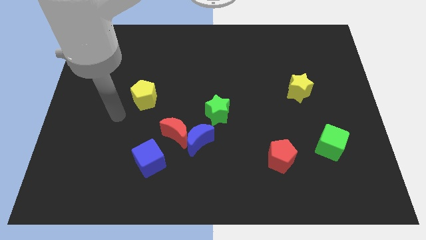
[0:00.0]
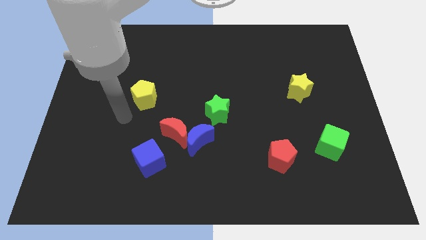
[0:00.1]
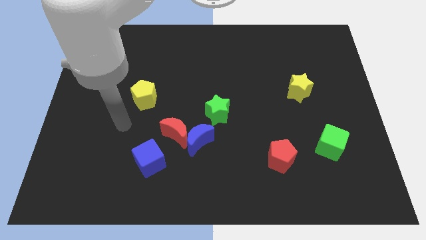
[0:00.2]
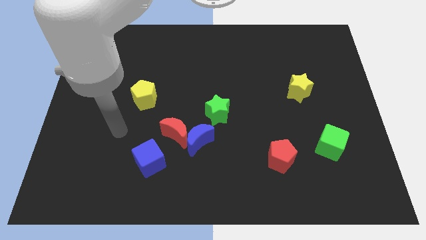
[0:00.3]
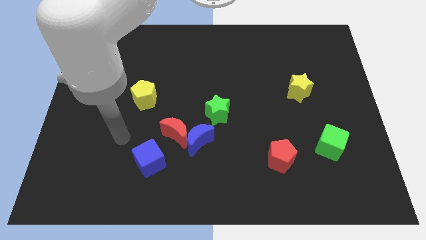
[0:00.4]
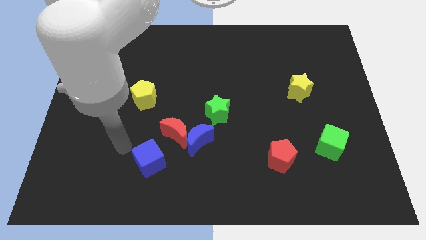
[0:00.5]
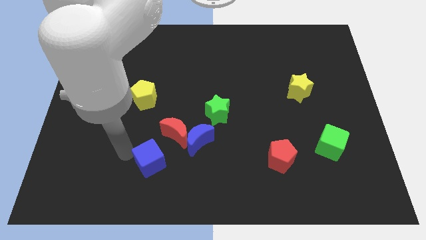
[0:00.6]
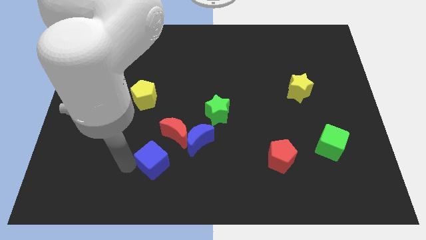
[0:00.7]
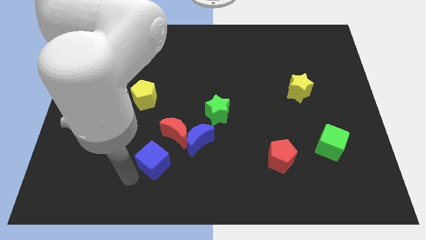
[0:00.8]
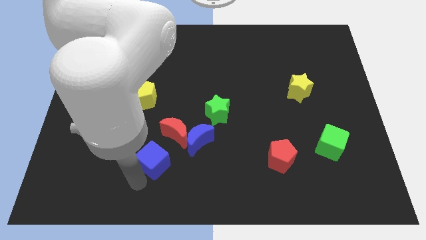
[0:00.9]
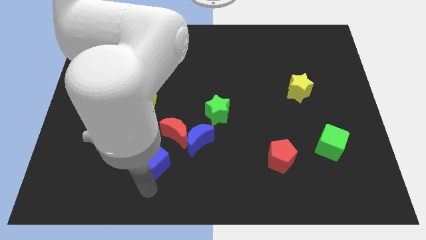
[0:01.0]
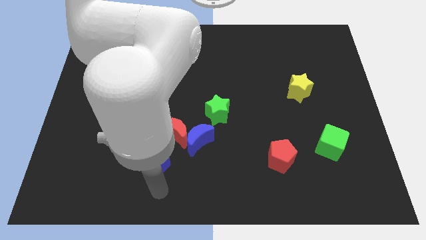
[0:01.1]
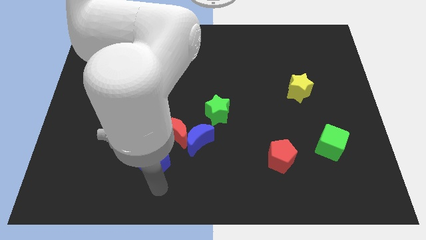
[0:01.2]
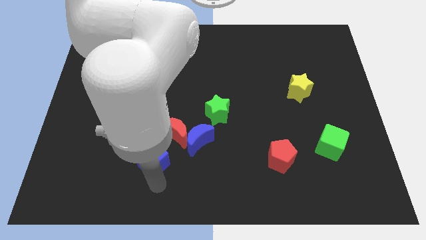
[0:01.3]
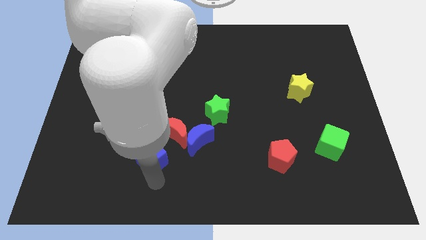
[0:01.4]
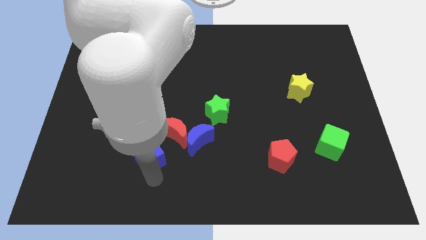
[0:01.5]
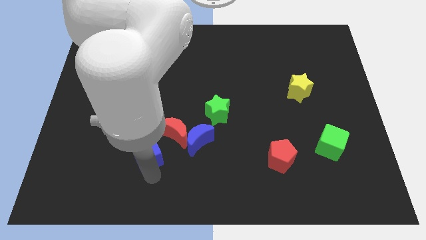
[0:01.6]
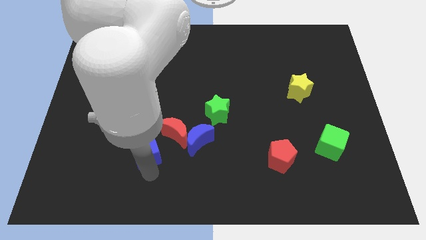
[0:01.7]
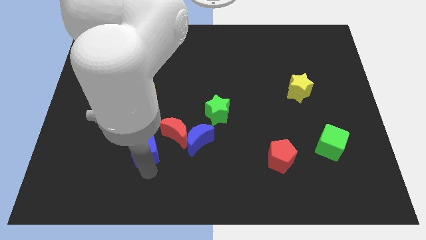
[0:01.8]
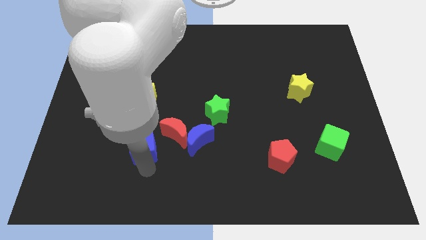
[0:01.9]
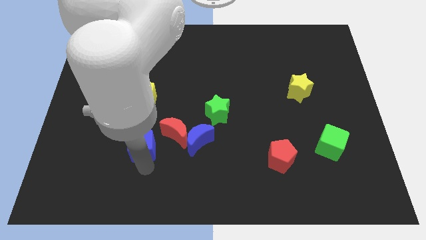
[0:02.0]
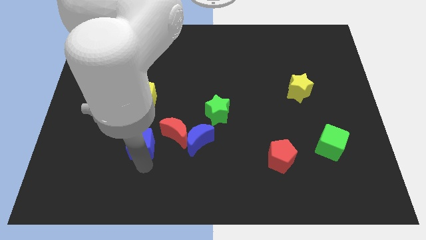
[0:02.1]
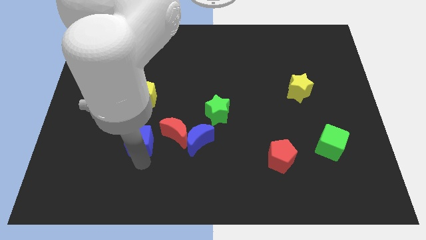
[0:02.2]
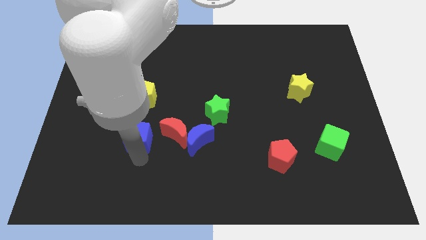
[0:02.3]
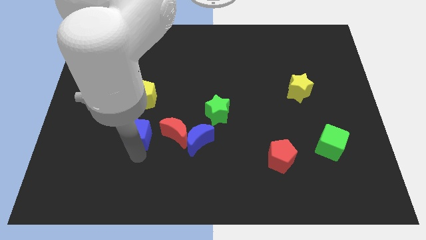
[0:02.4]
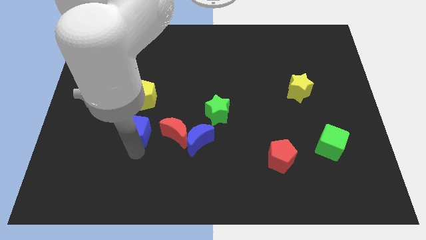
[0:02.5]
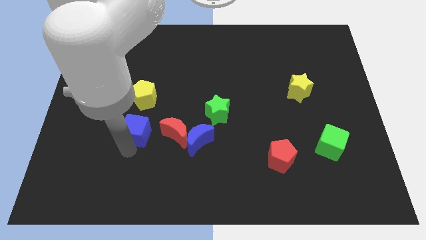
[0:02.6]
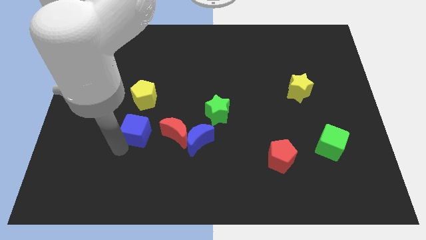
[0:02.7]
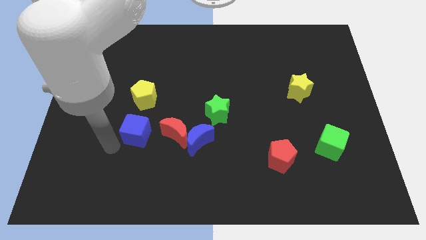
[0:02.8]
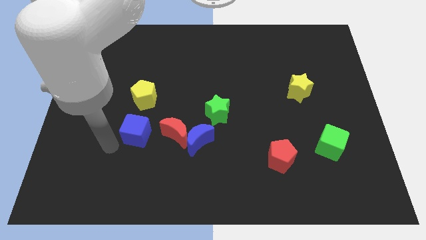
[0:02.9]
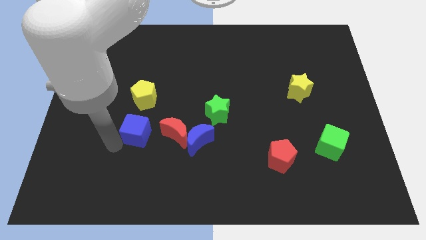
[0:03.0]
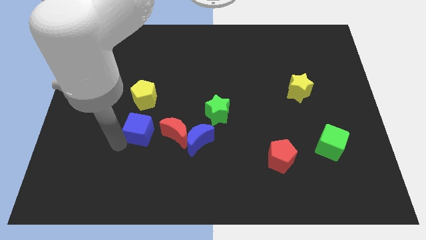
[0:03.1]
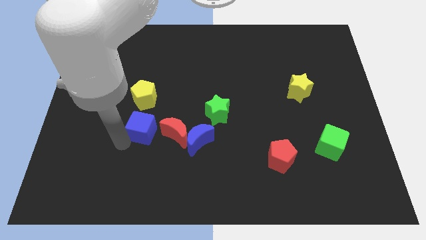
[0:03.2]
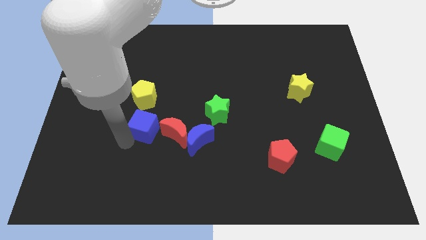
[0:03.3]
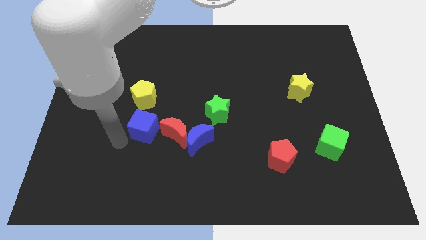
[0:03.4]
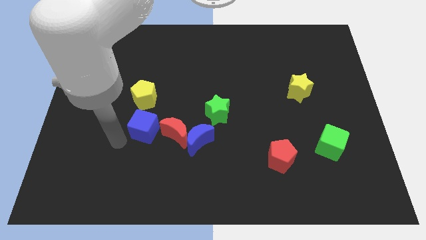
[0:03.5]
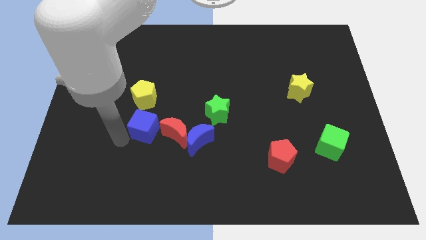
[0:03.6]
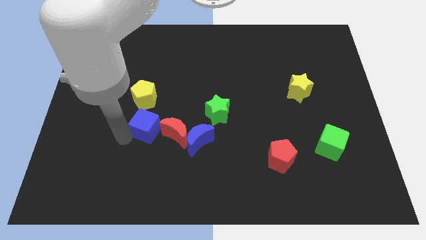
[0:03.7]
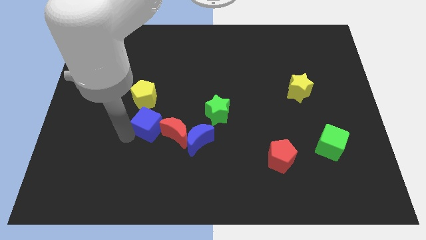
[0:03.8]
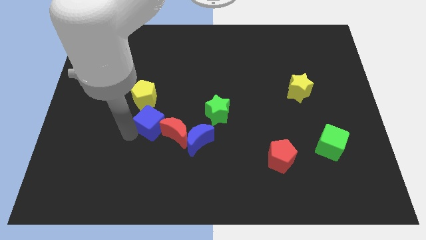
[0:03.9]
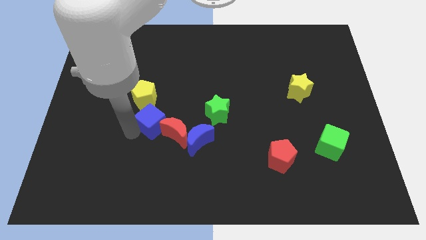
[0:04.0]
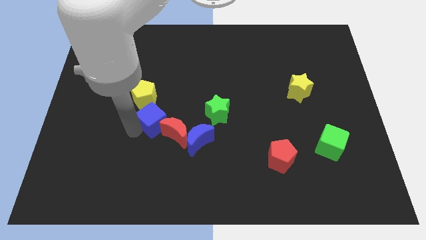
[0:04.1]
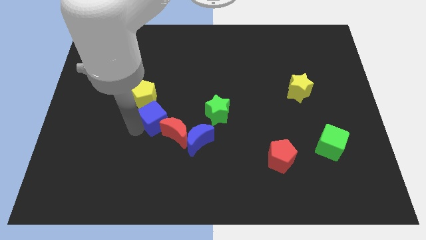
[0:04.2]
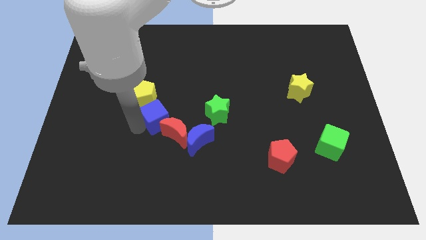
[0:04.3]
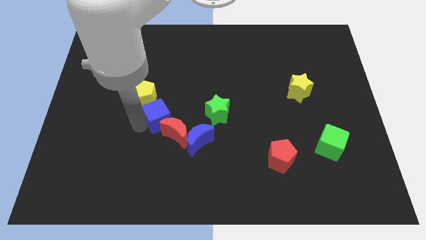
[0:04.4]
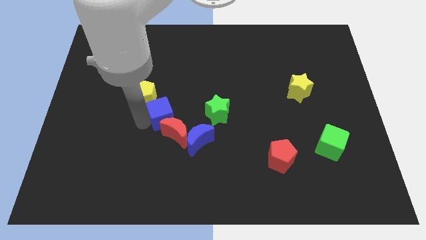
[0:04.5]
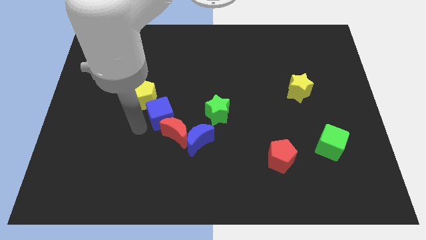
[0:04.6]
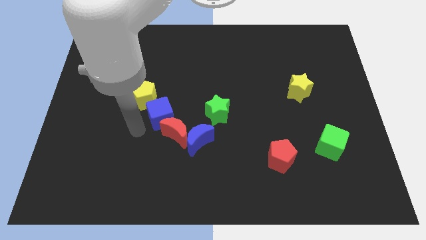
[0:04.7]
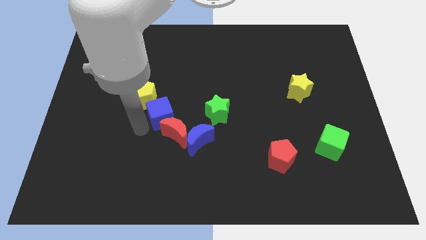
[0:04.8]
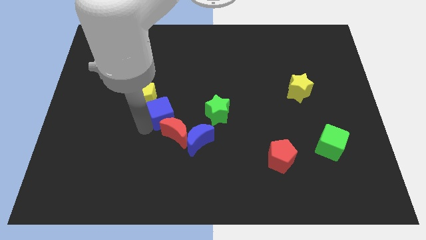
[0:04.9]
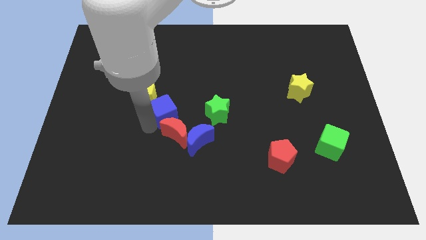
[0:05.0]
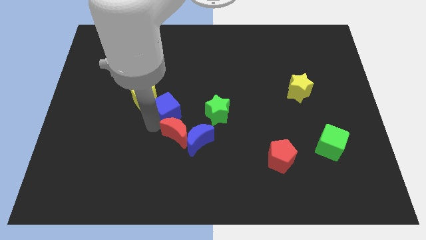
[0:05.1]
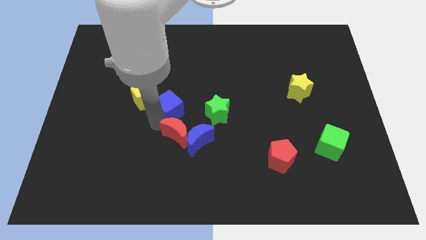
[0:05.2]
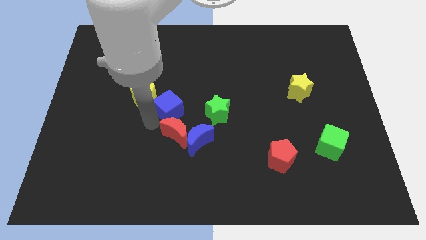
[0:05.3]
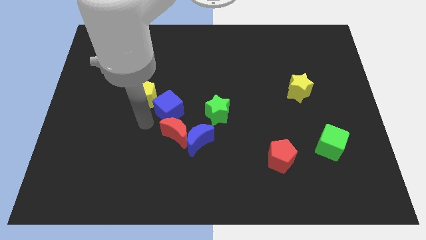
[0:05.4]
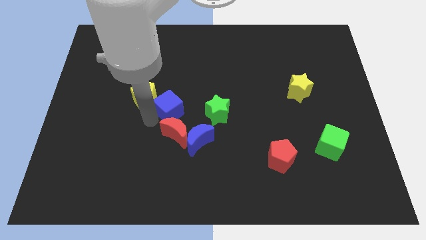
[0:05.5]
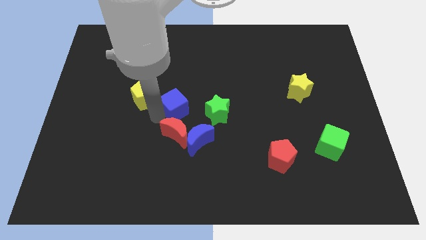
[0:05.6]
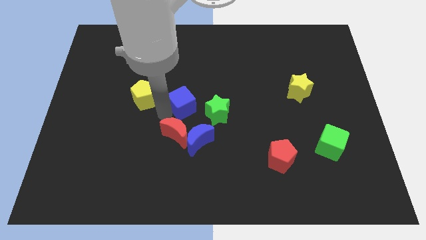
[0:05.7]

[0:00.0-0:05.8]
slide the blue cube to the top left of the green star

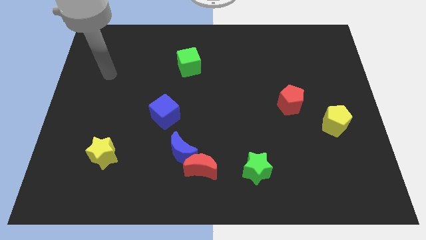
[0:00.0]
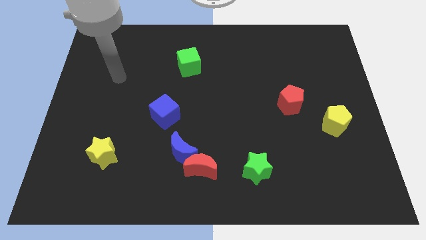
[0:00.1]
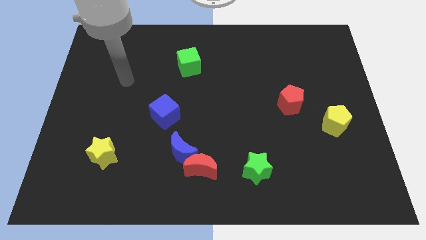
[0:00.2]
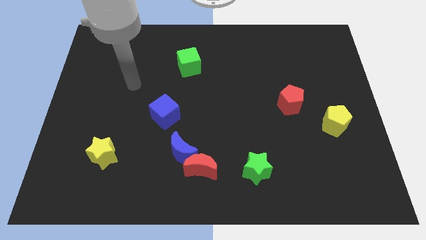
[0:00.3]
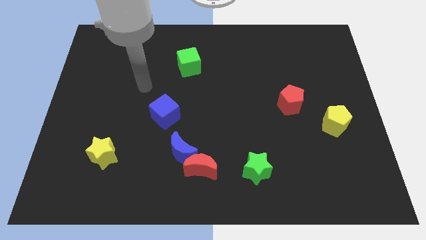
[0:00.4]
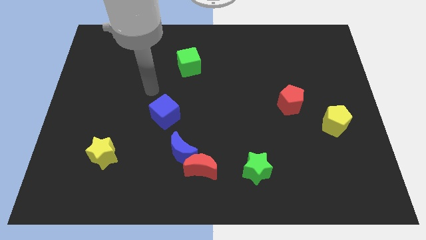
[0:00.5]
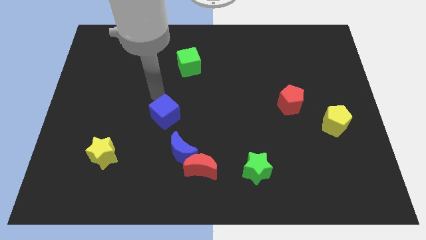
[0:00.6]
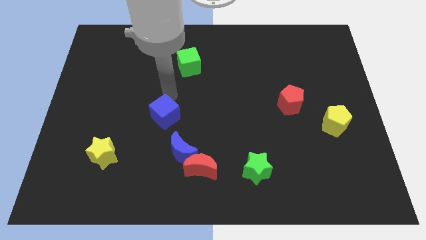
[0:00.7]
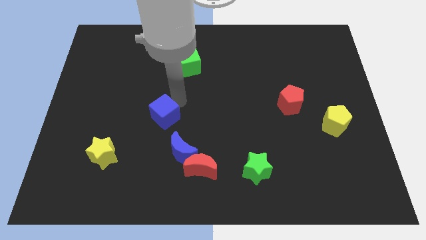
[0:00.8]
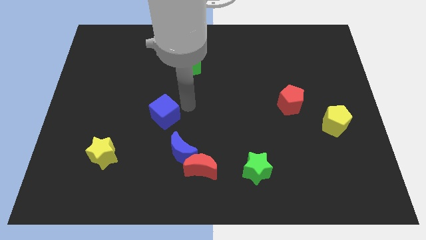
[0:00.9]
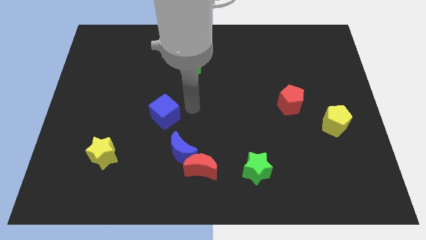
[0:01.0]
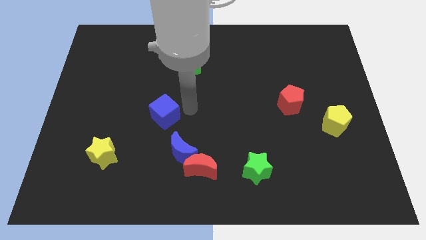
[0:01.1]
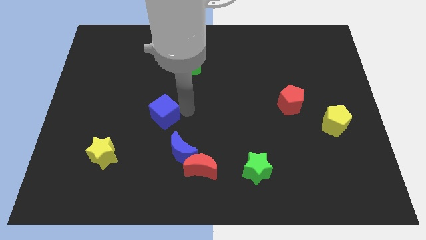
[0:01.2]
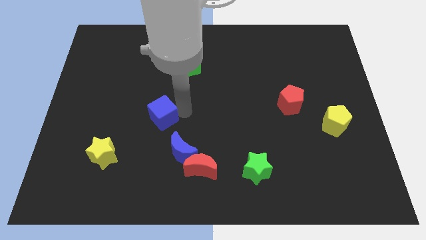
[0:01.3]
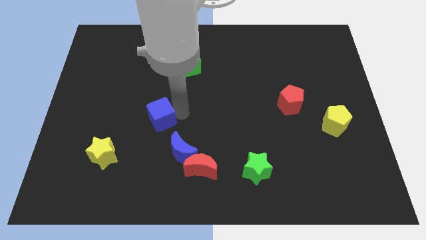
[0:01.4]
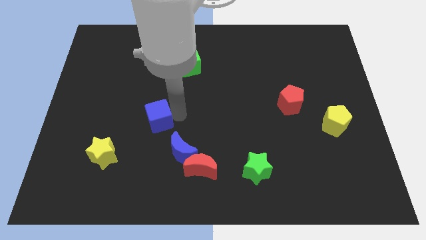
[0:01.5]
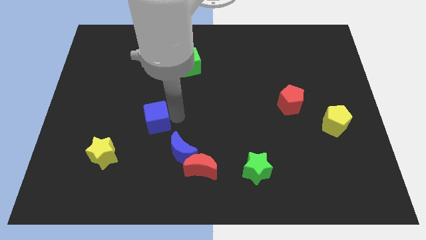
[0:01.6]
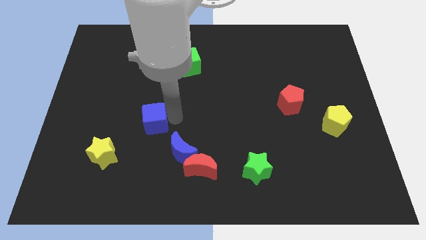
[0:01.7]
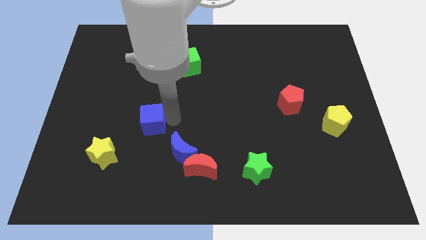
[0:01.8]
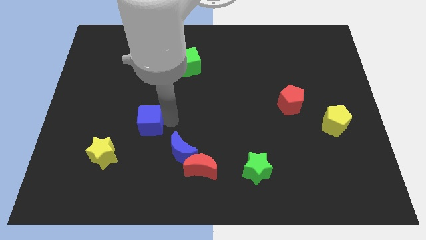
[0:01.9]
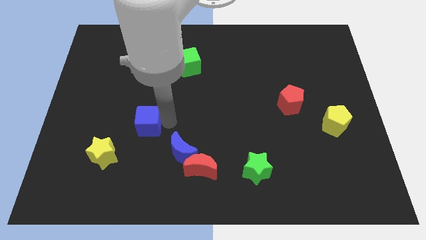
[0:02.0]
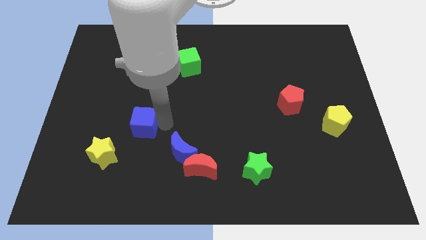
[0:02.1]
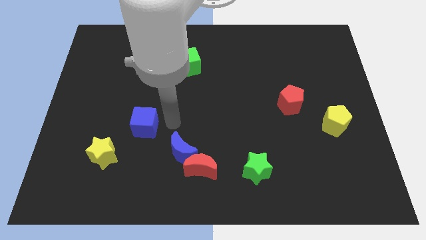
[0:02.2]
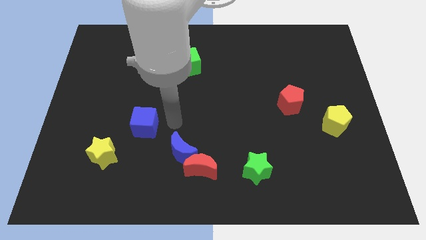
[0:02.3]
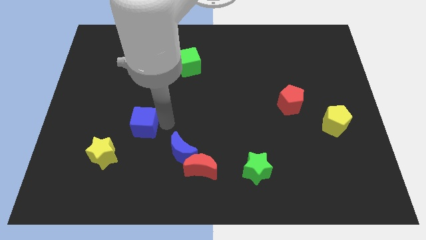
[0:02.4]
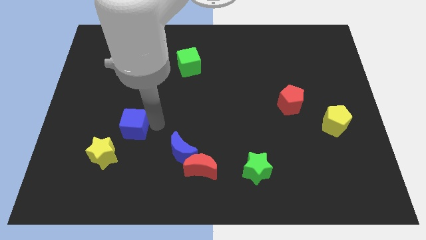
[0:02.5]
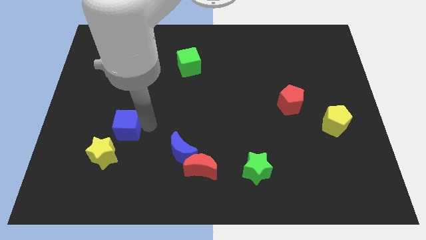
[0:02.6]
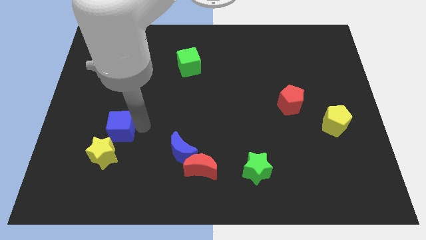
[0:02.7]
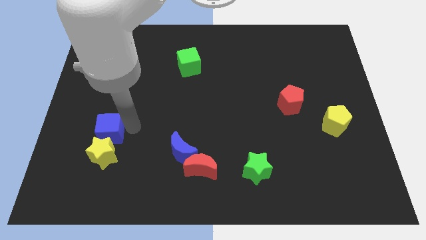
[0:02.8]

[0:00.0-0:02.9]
slide the blue cube to the top left of the yellow star

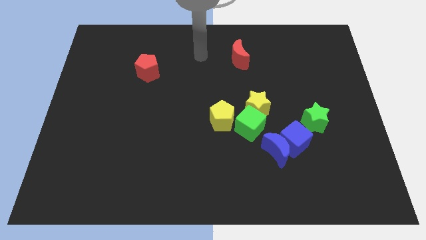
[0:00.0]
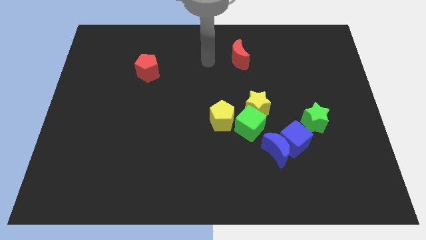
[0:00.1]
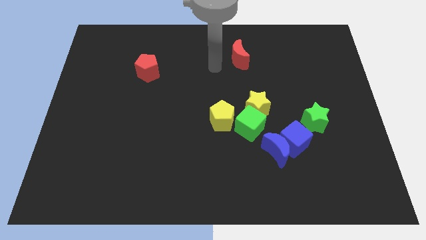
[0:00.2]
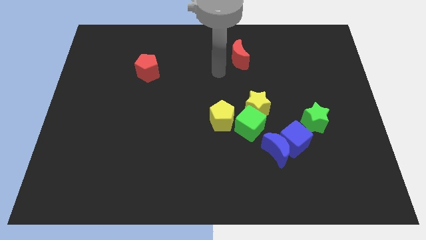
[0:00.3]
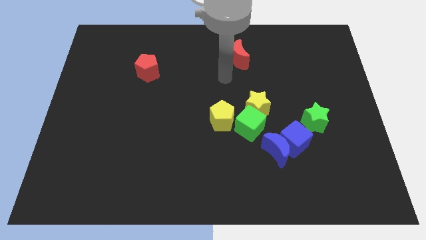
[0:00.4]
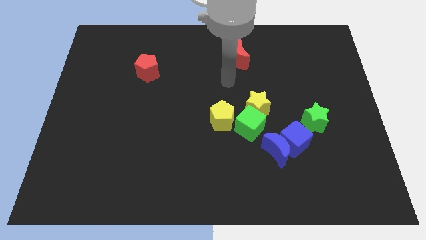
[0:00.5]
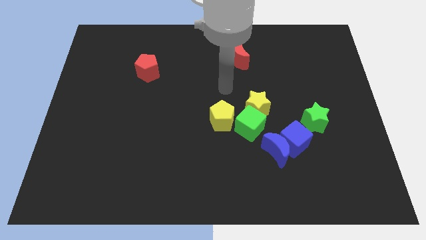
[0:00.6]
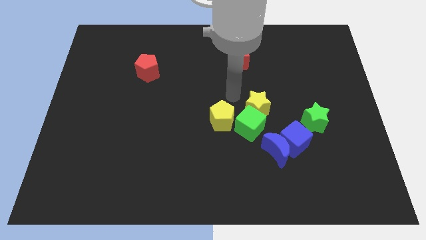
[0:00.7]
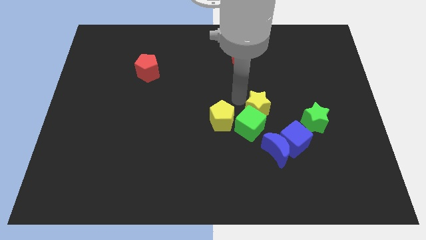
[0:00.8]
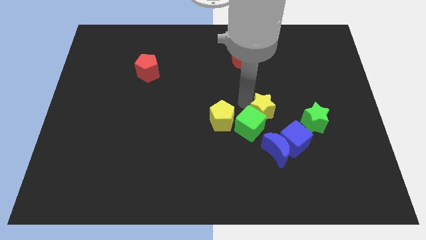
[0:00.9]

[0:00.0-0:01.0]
move the yellow star just right of the green cube
